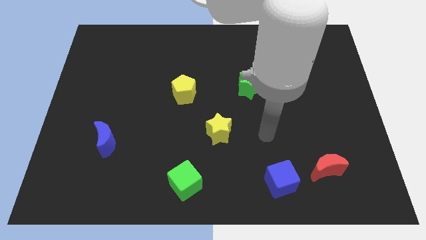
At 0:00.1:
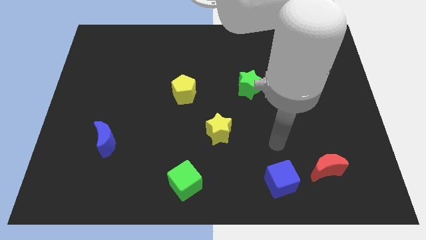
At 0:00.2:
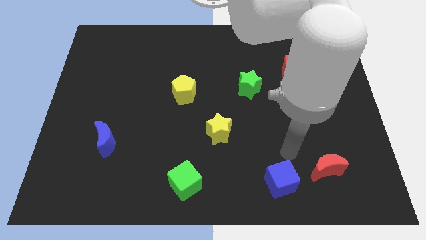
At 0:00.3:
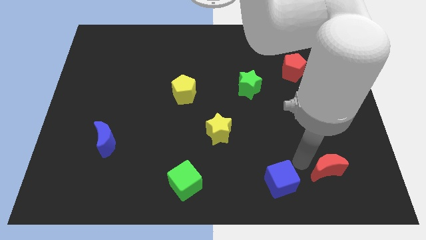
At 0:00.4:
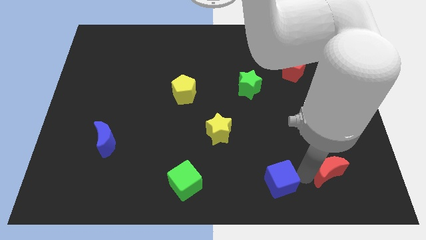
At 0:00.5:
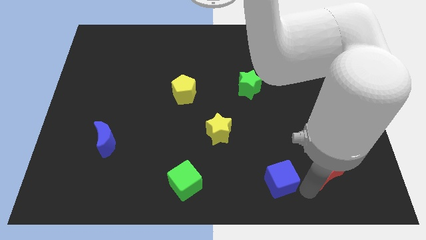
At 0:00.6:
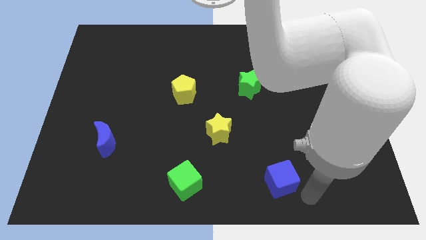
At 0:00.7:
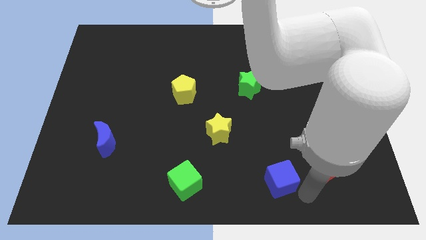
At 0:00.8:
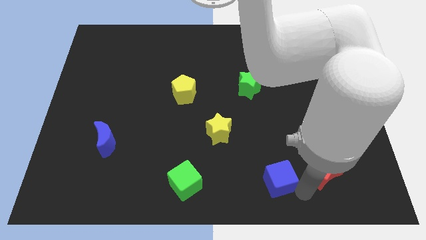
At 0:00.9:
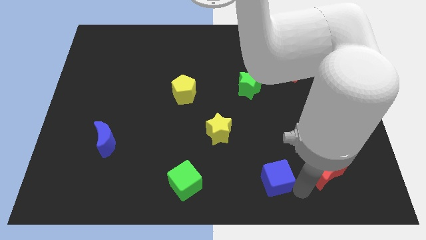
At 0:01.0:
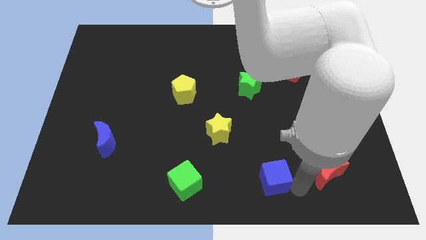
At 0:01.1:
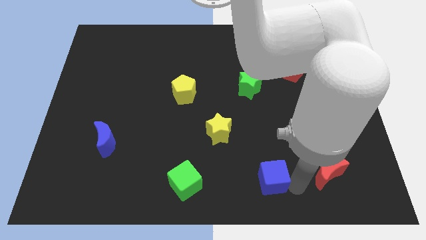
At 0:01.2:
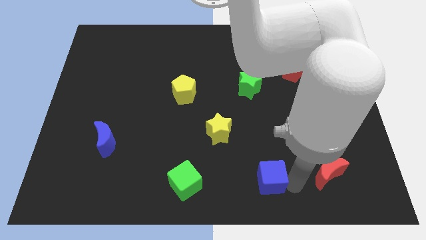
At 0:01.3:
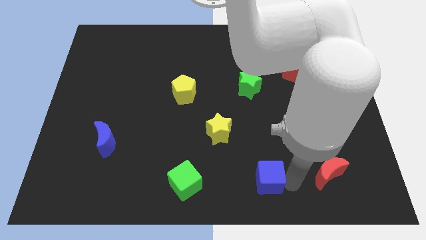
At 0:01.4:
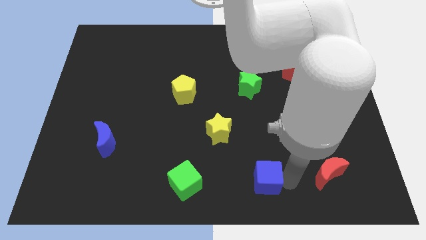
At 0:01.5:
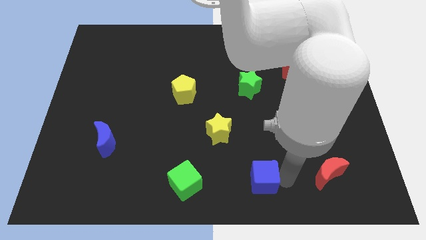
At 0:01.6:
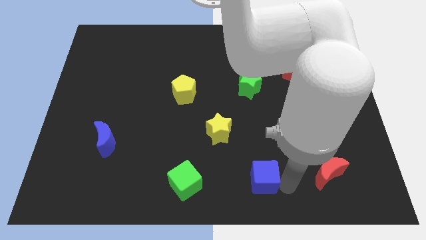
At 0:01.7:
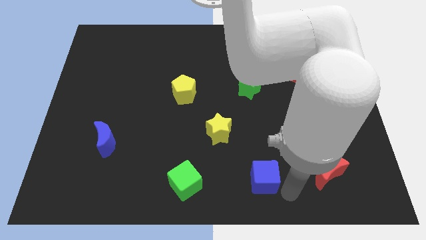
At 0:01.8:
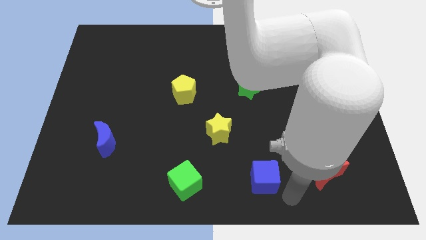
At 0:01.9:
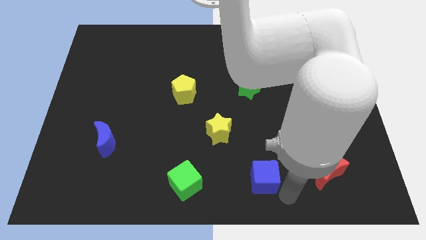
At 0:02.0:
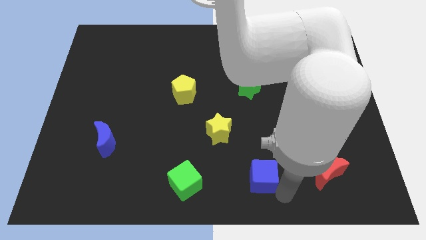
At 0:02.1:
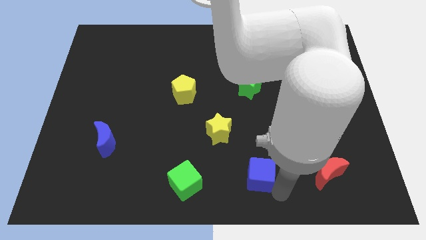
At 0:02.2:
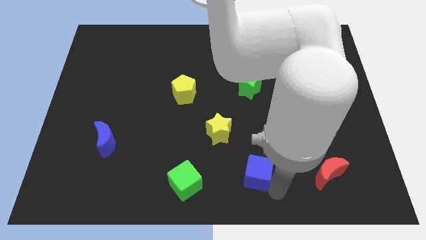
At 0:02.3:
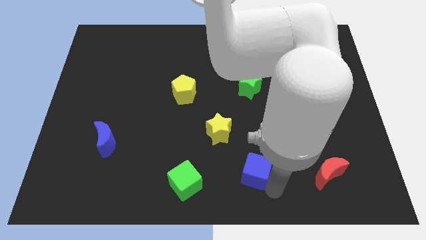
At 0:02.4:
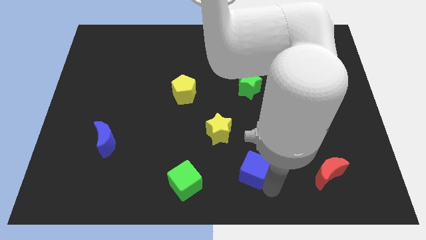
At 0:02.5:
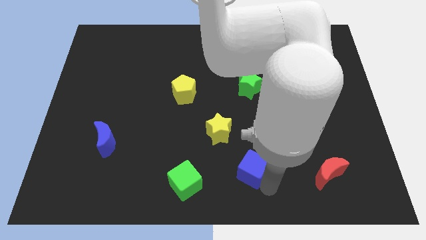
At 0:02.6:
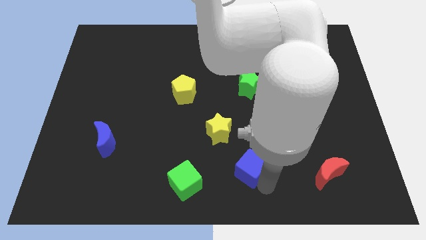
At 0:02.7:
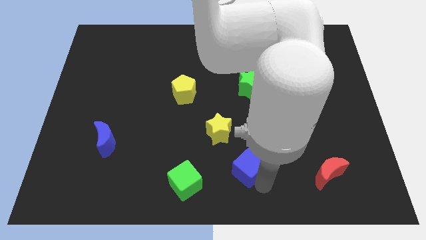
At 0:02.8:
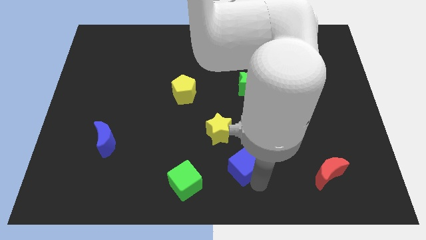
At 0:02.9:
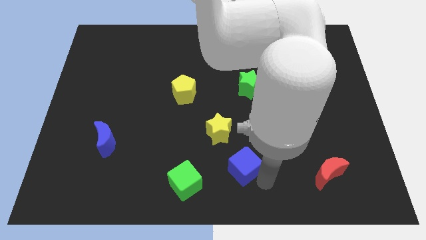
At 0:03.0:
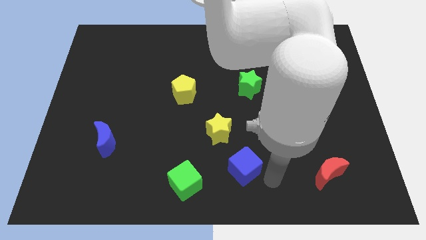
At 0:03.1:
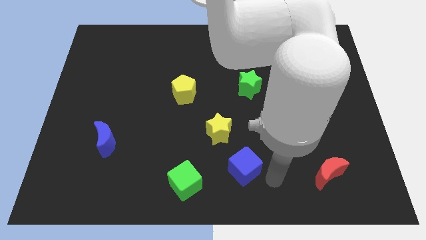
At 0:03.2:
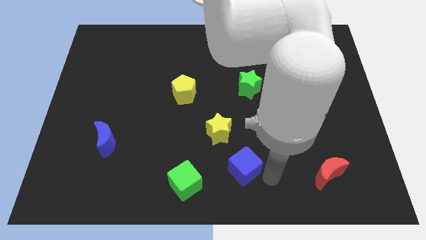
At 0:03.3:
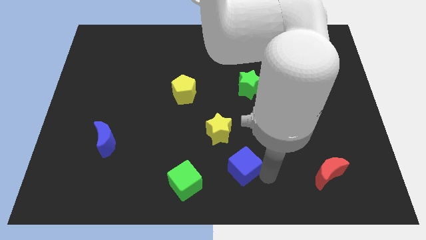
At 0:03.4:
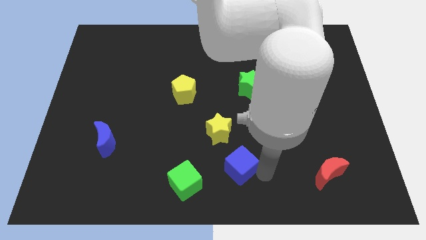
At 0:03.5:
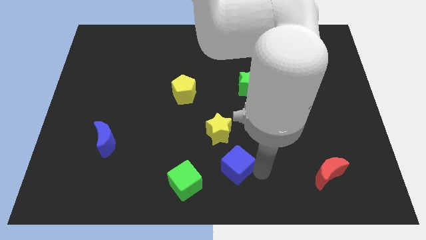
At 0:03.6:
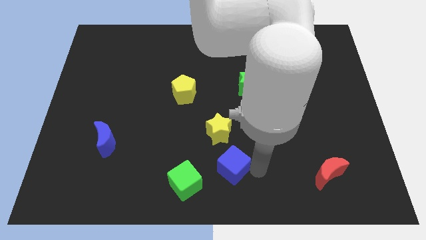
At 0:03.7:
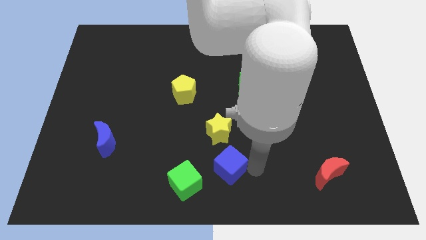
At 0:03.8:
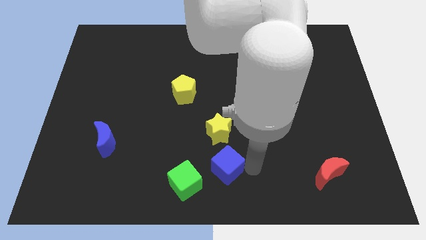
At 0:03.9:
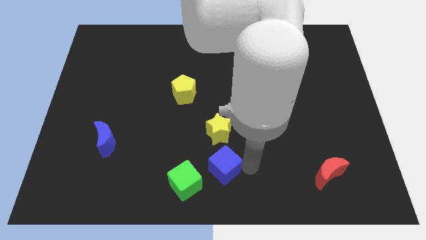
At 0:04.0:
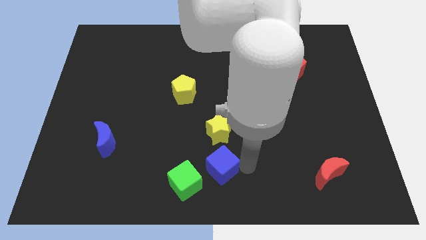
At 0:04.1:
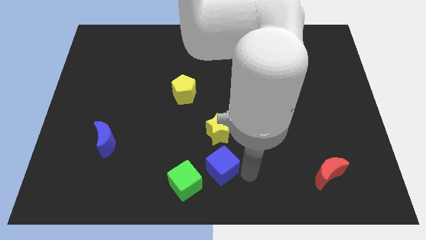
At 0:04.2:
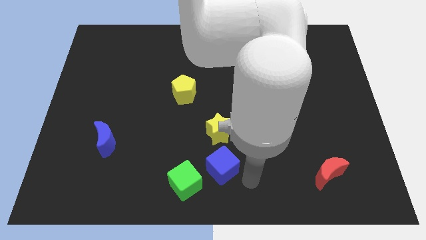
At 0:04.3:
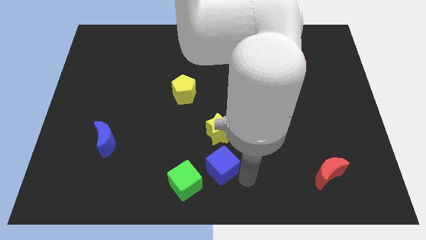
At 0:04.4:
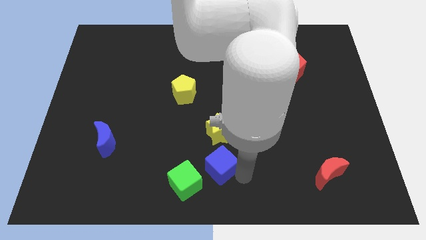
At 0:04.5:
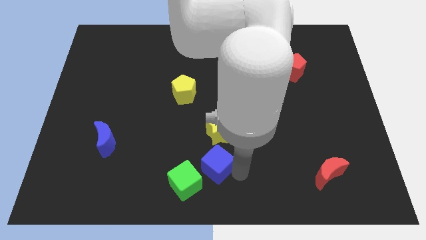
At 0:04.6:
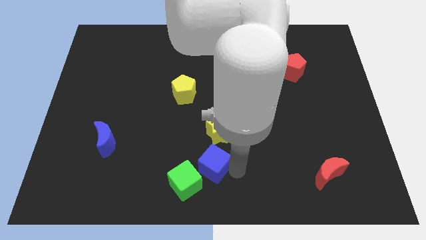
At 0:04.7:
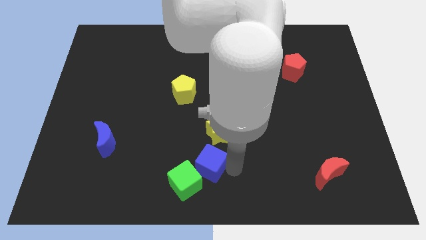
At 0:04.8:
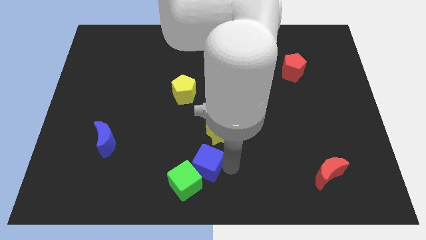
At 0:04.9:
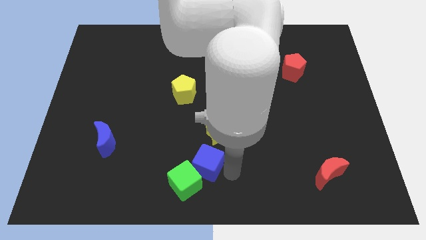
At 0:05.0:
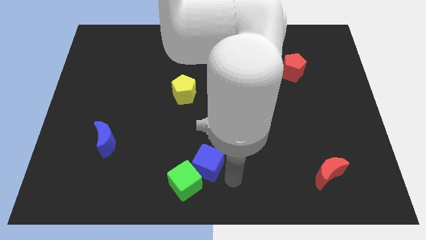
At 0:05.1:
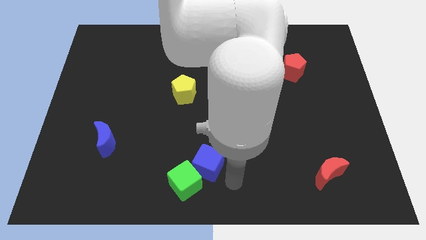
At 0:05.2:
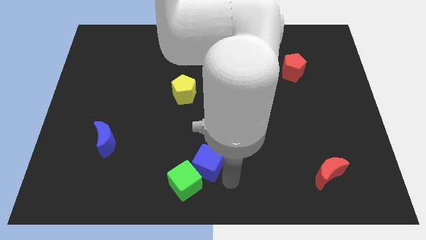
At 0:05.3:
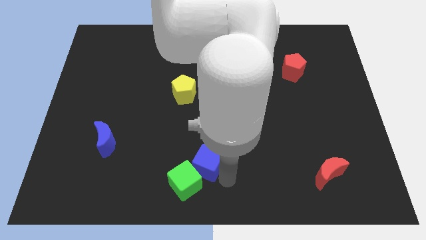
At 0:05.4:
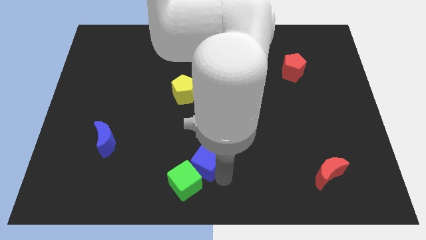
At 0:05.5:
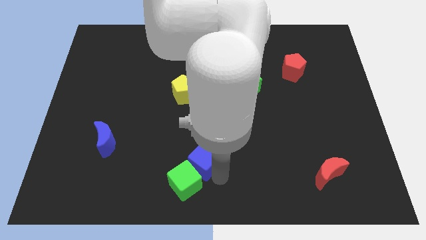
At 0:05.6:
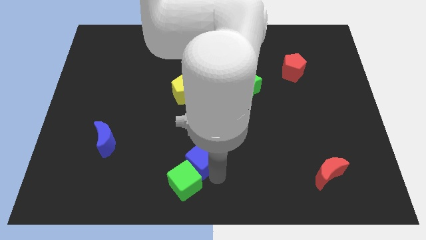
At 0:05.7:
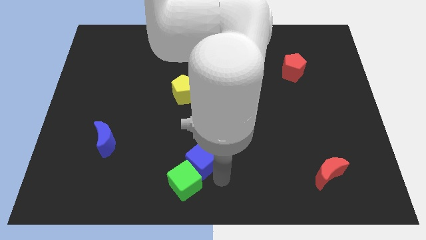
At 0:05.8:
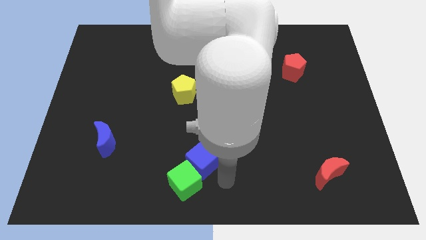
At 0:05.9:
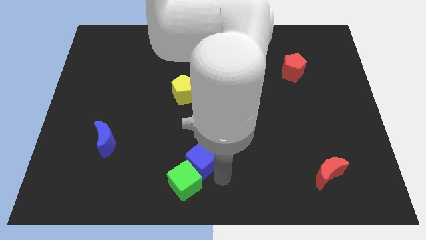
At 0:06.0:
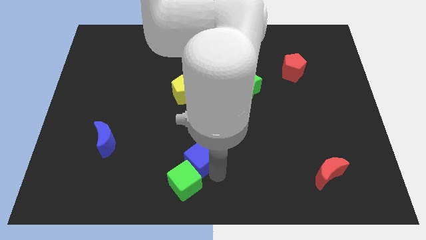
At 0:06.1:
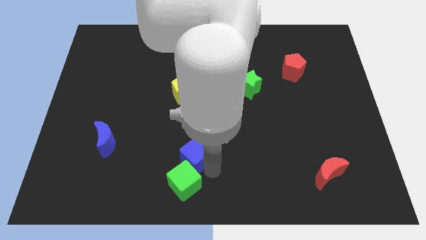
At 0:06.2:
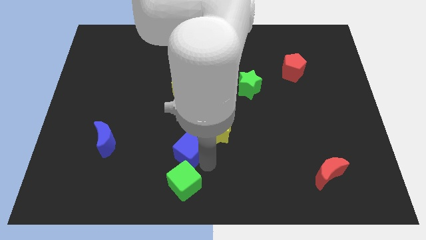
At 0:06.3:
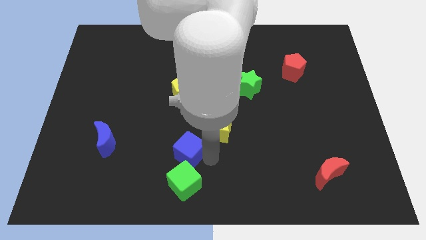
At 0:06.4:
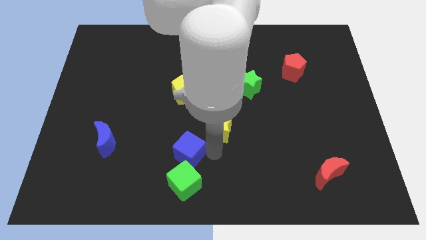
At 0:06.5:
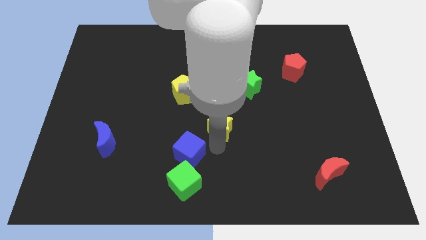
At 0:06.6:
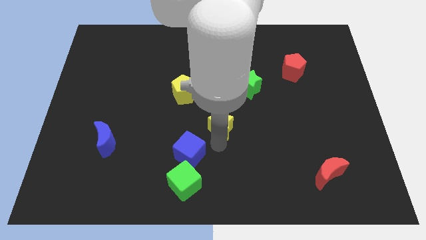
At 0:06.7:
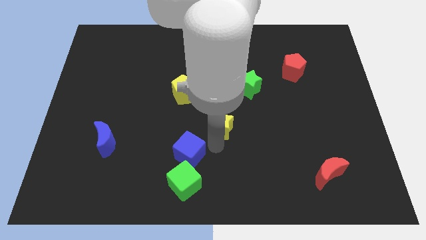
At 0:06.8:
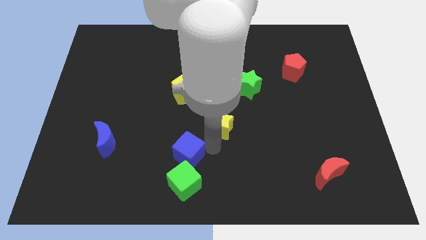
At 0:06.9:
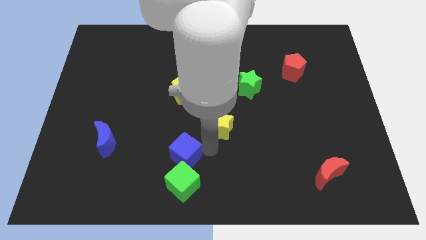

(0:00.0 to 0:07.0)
slide the blue cube to the top left side of the green cube
